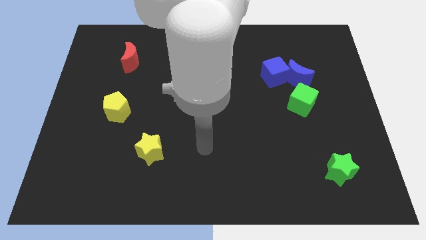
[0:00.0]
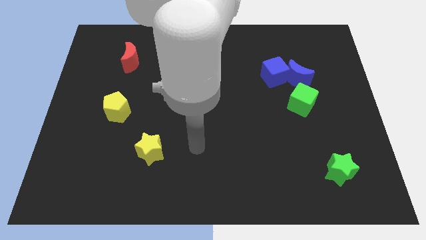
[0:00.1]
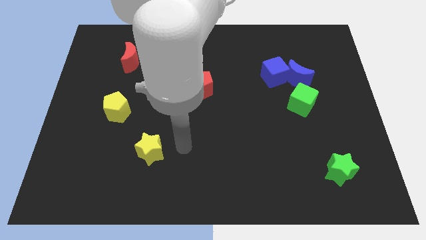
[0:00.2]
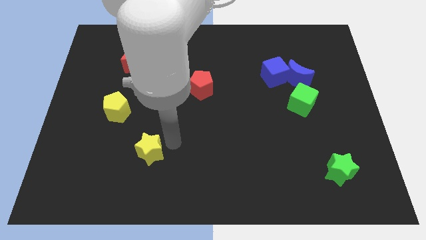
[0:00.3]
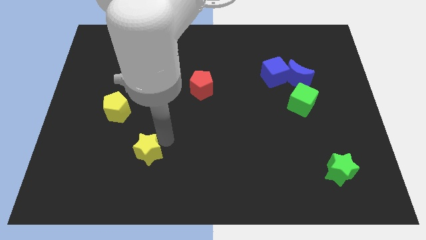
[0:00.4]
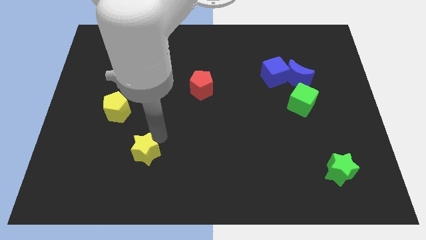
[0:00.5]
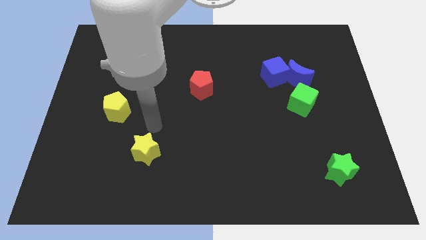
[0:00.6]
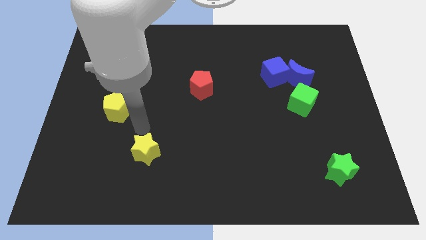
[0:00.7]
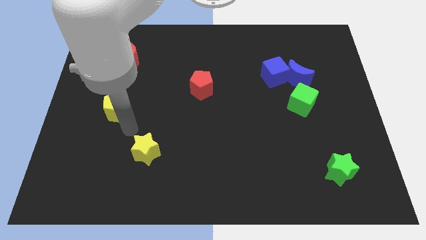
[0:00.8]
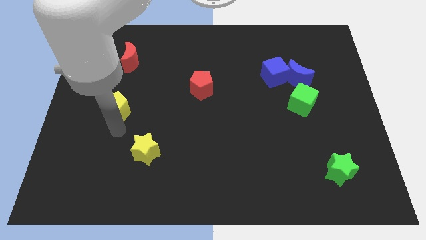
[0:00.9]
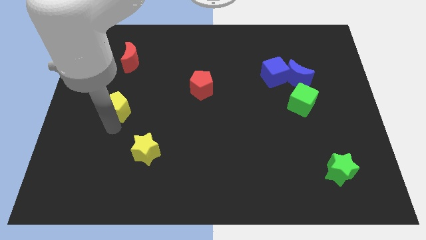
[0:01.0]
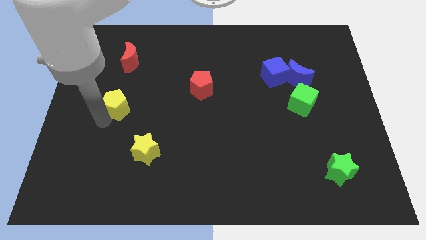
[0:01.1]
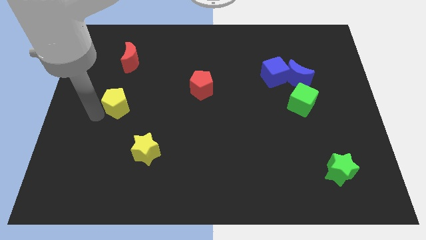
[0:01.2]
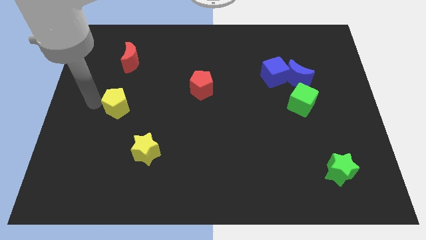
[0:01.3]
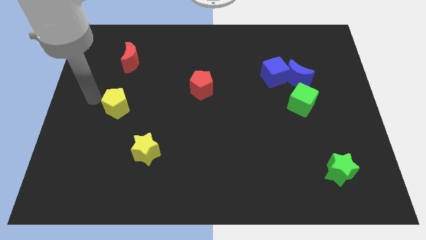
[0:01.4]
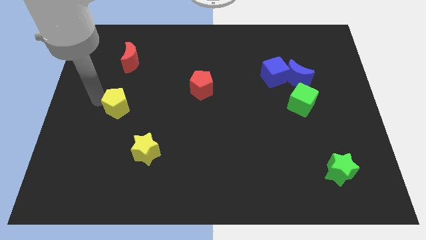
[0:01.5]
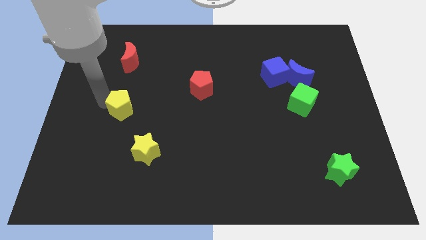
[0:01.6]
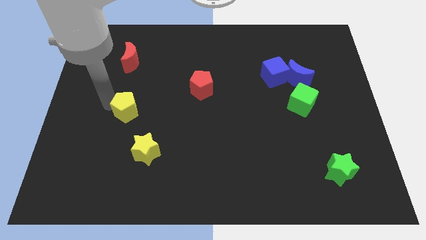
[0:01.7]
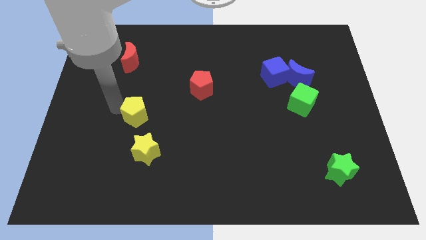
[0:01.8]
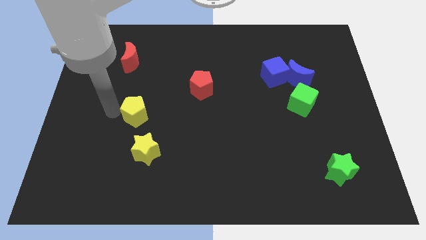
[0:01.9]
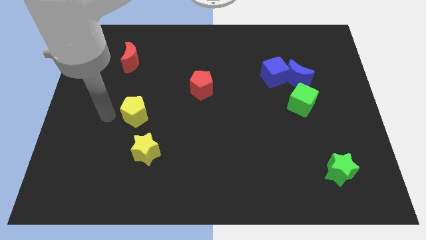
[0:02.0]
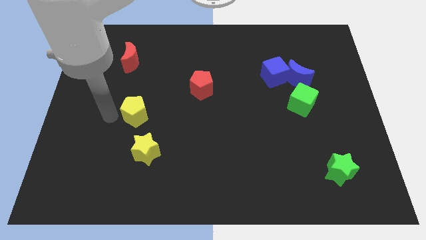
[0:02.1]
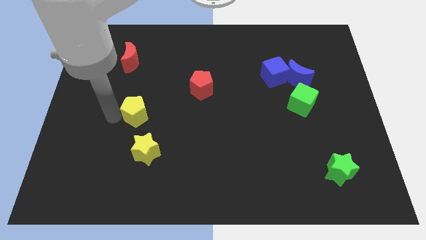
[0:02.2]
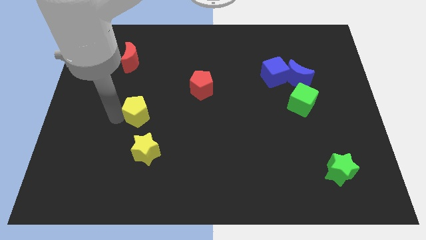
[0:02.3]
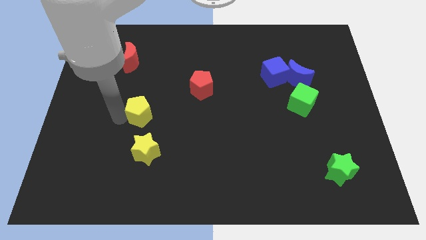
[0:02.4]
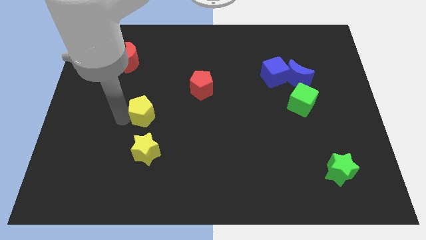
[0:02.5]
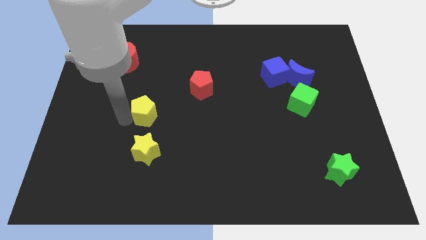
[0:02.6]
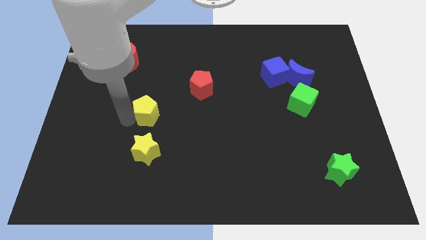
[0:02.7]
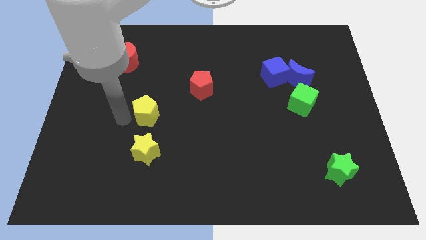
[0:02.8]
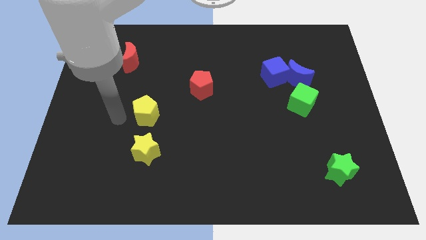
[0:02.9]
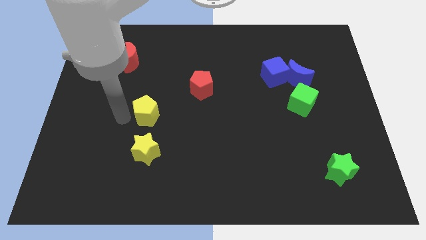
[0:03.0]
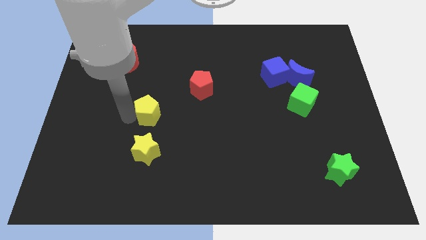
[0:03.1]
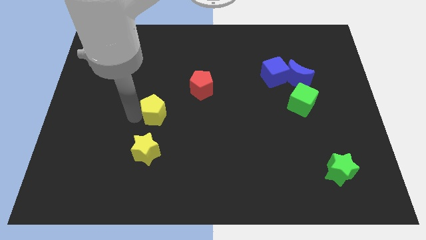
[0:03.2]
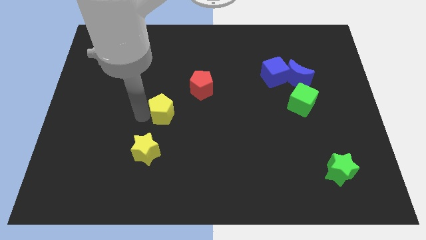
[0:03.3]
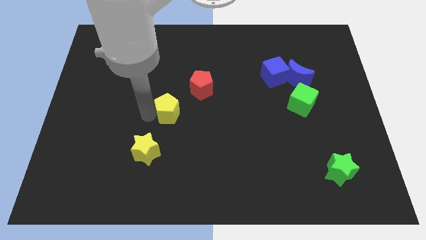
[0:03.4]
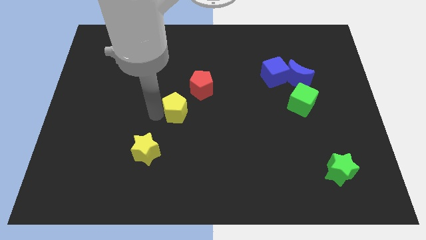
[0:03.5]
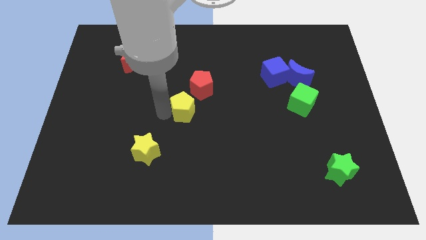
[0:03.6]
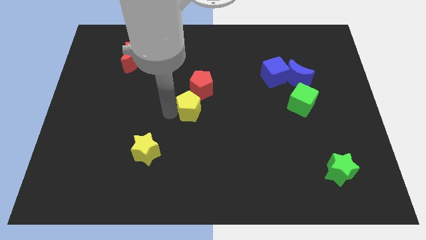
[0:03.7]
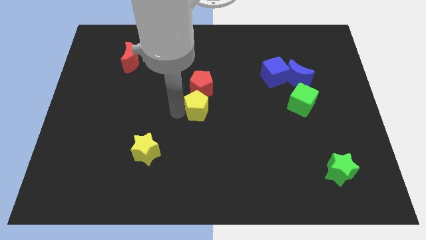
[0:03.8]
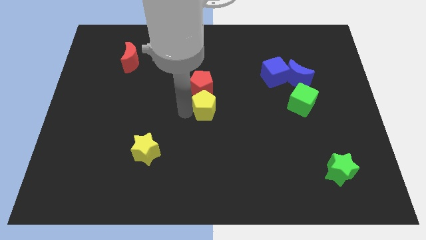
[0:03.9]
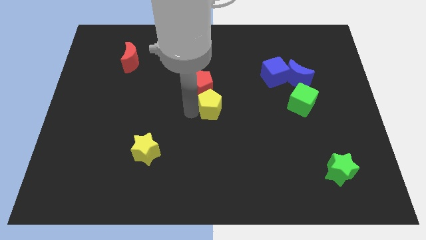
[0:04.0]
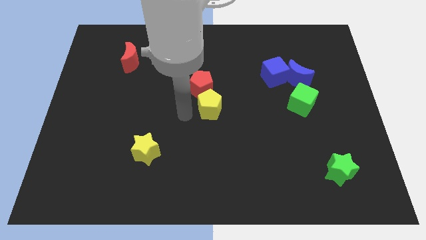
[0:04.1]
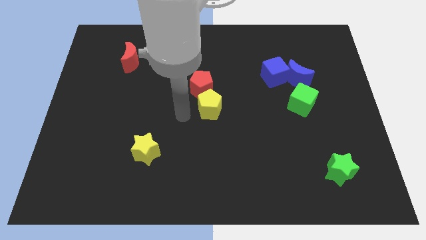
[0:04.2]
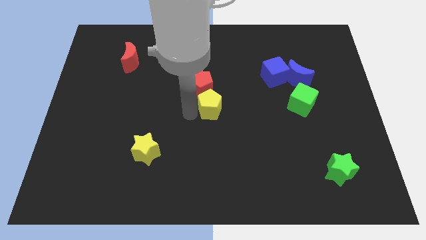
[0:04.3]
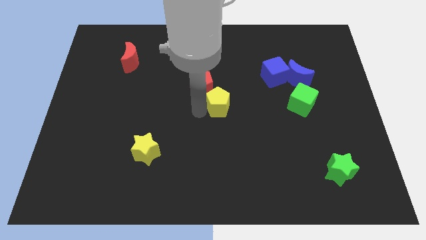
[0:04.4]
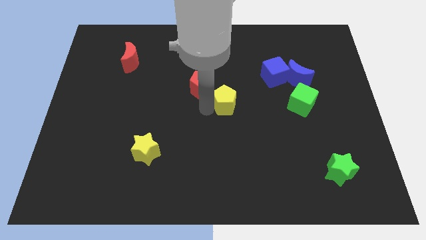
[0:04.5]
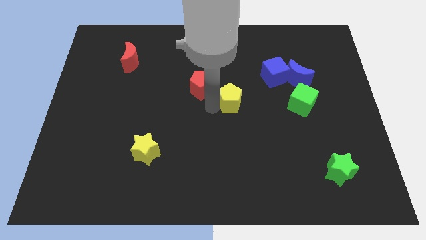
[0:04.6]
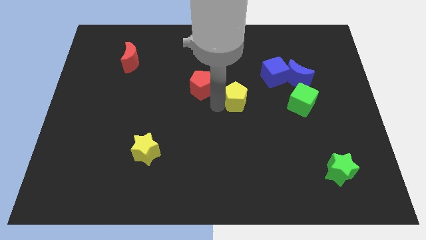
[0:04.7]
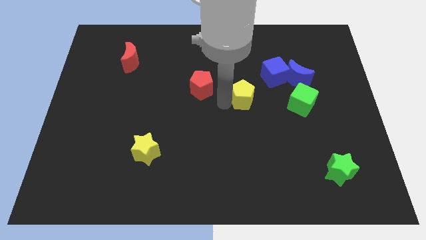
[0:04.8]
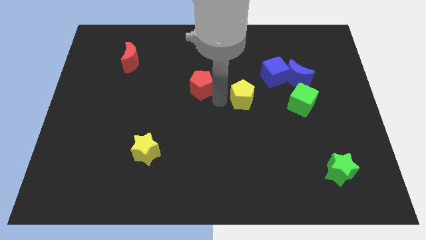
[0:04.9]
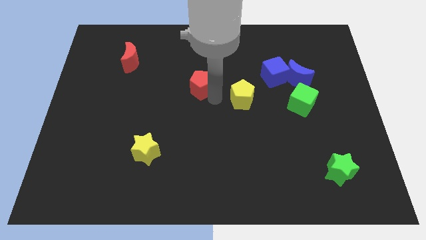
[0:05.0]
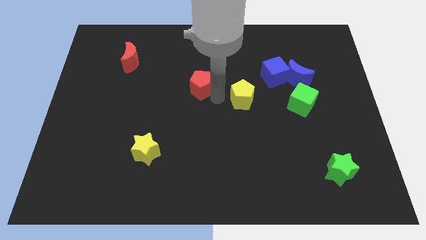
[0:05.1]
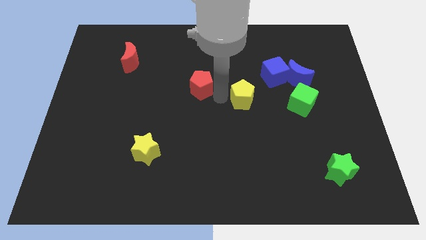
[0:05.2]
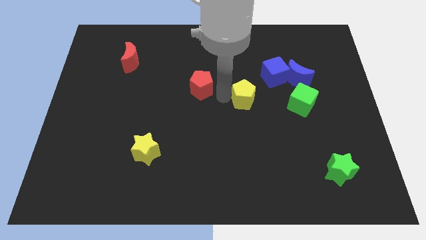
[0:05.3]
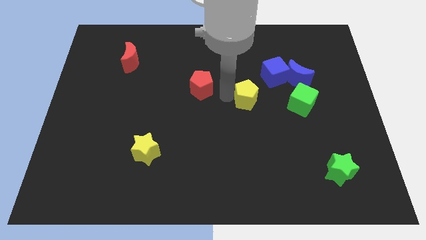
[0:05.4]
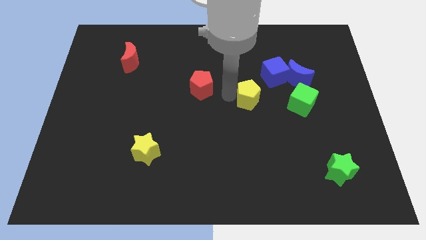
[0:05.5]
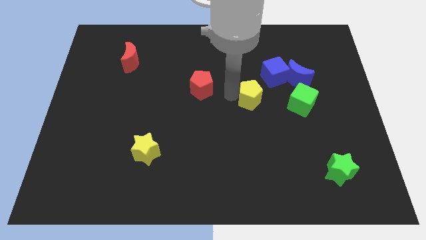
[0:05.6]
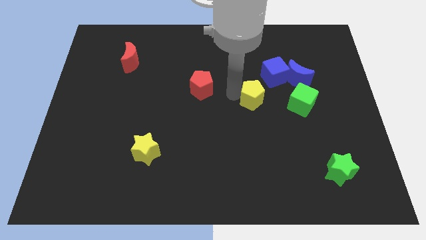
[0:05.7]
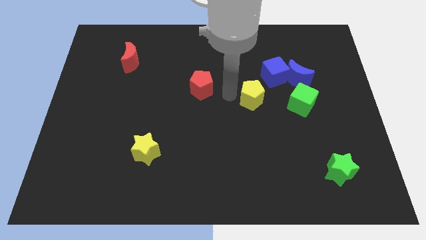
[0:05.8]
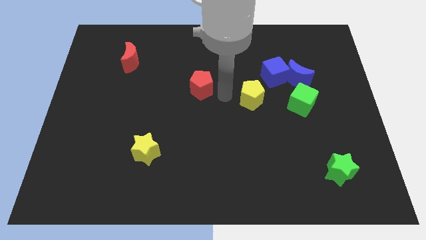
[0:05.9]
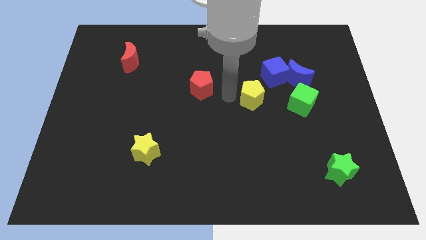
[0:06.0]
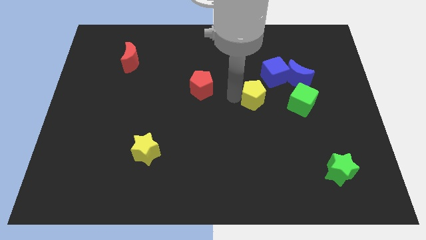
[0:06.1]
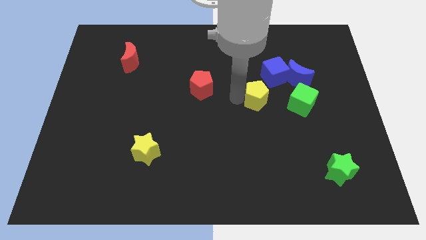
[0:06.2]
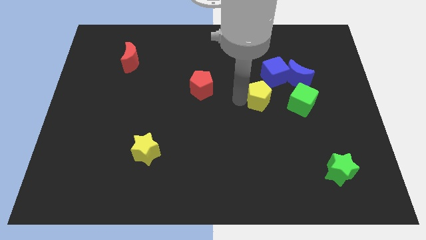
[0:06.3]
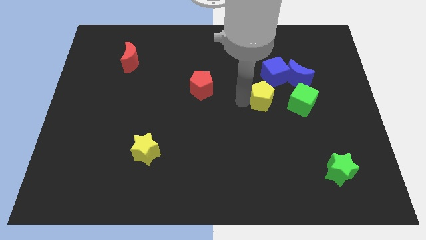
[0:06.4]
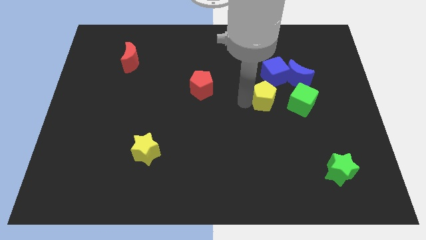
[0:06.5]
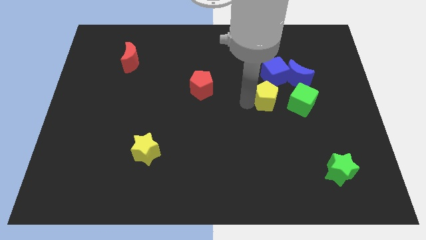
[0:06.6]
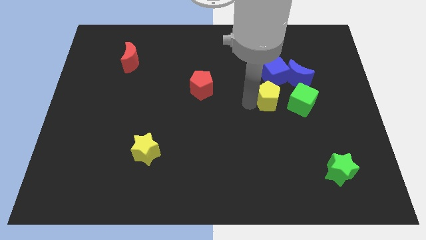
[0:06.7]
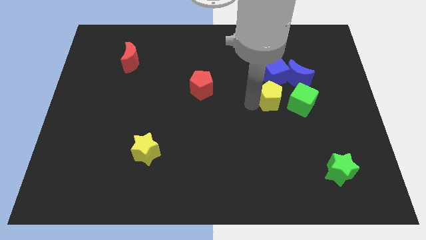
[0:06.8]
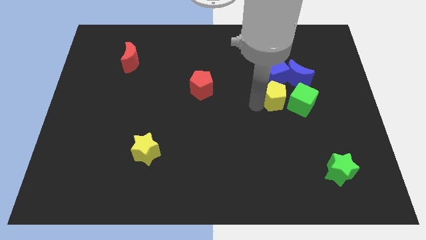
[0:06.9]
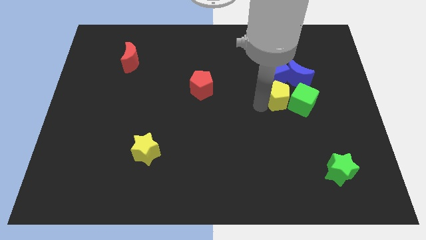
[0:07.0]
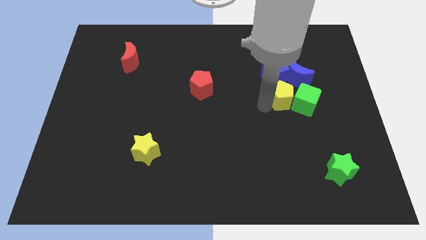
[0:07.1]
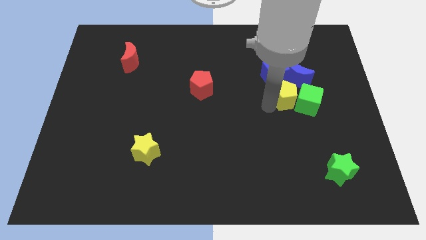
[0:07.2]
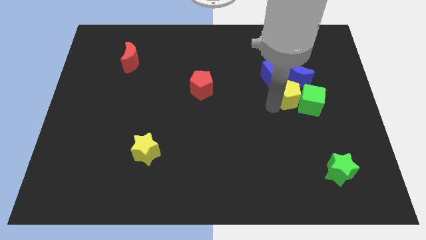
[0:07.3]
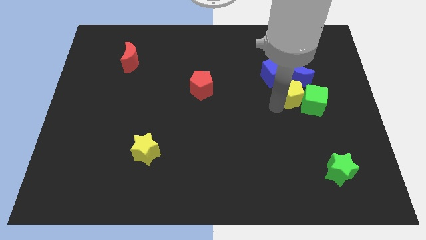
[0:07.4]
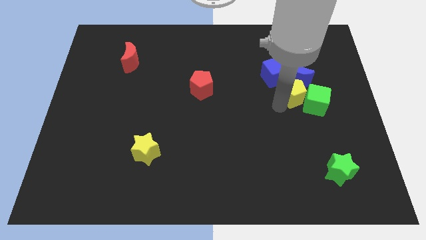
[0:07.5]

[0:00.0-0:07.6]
slide the yellow pentagon close to the blue moon
